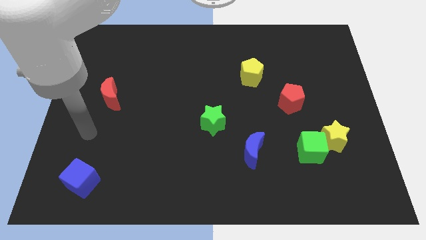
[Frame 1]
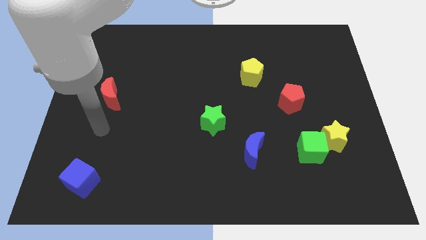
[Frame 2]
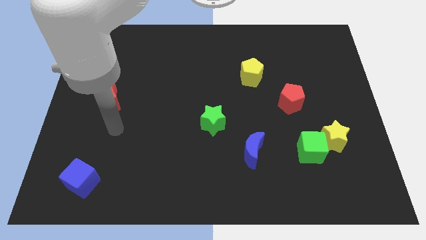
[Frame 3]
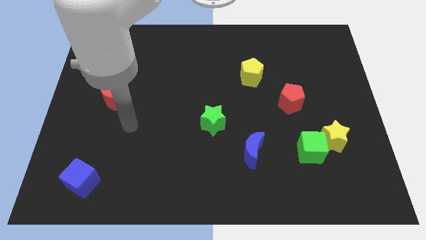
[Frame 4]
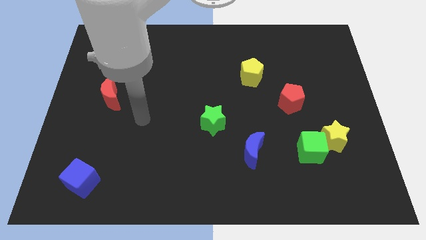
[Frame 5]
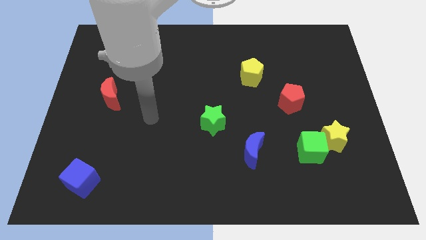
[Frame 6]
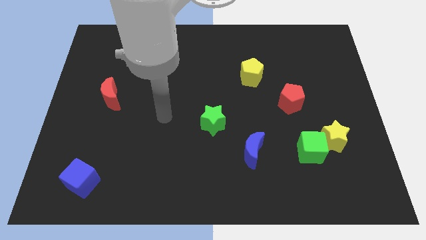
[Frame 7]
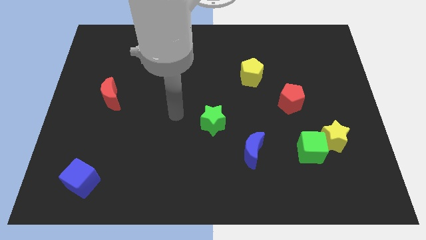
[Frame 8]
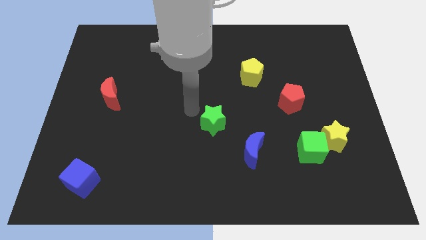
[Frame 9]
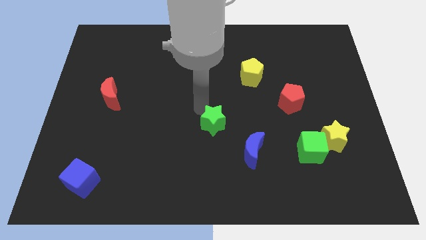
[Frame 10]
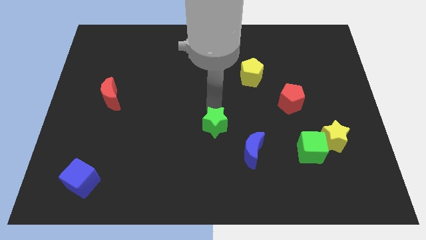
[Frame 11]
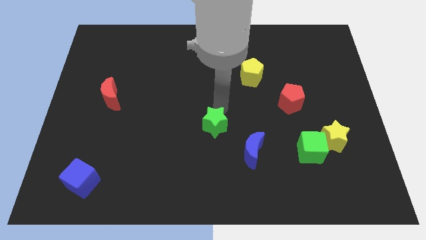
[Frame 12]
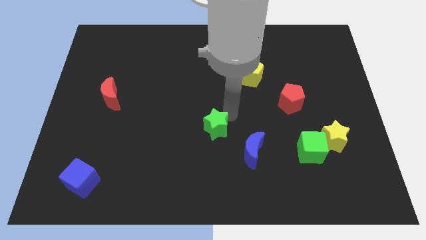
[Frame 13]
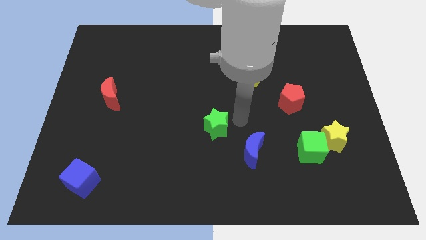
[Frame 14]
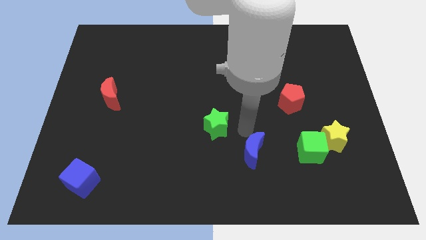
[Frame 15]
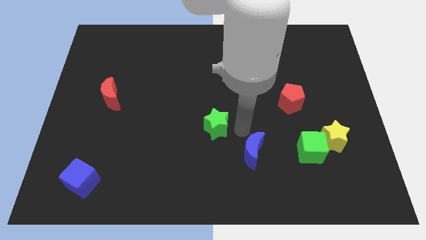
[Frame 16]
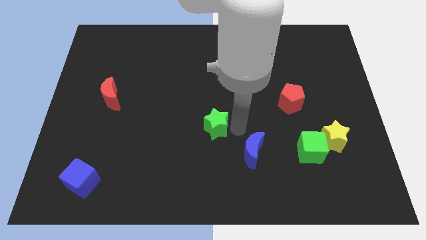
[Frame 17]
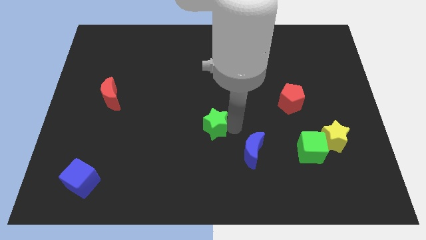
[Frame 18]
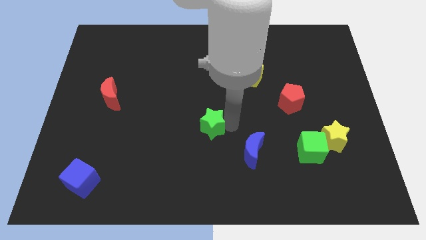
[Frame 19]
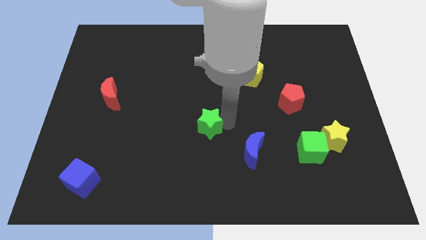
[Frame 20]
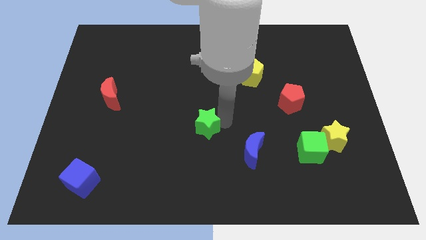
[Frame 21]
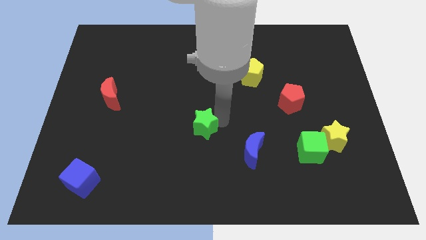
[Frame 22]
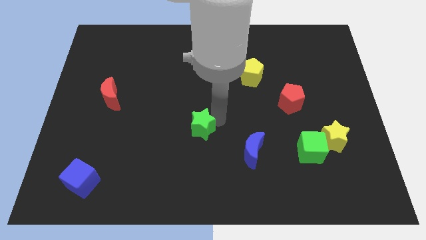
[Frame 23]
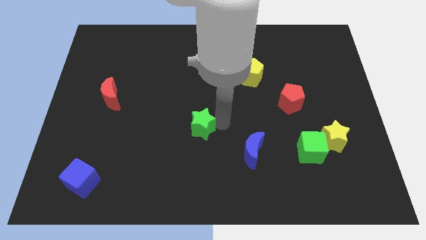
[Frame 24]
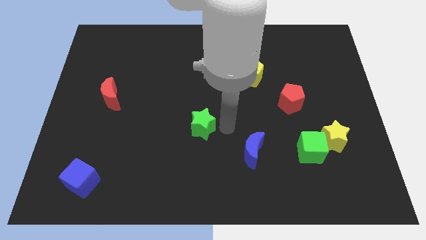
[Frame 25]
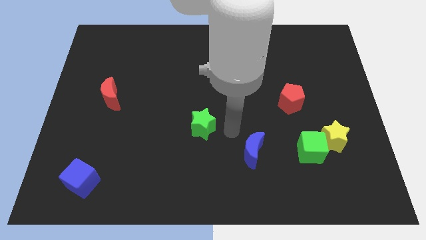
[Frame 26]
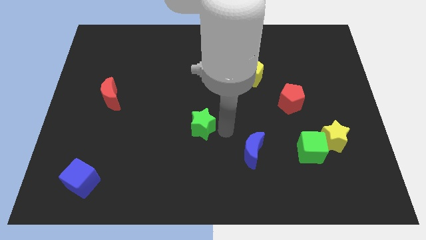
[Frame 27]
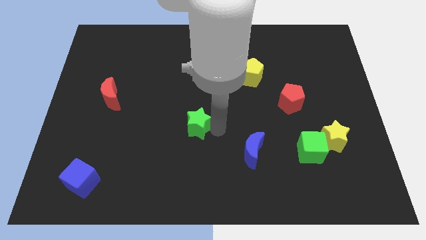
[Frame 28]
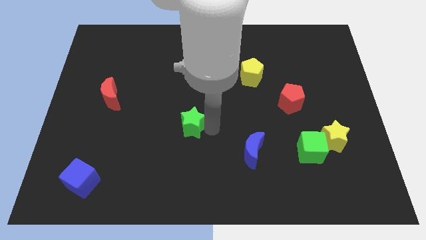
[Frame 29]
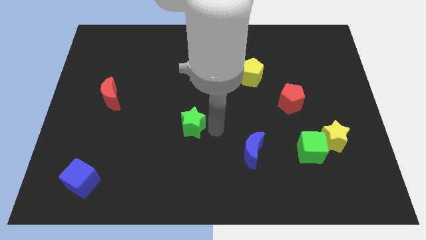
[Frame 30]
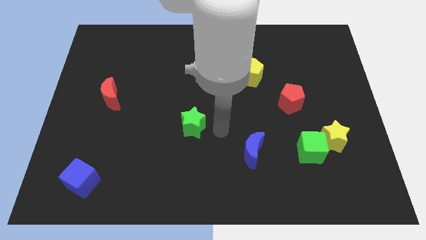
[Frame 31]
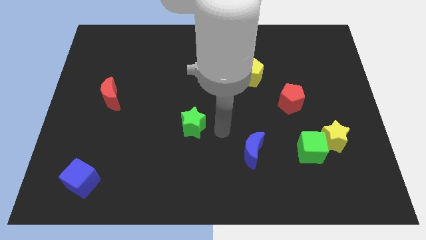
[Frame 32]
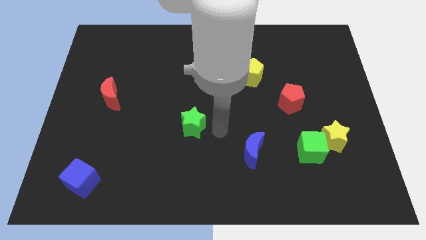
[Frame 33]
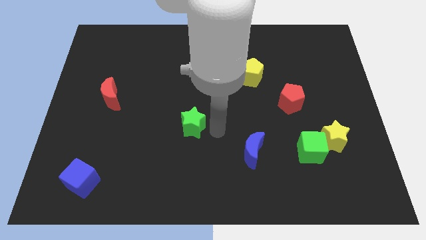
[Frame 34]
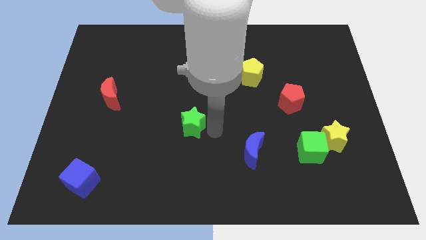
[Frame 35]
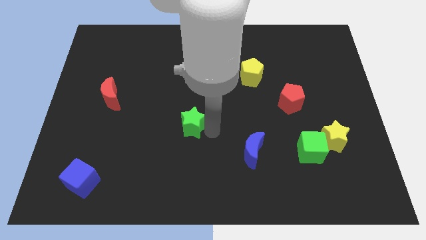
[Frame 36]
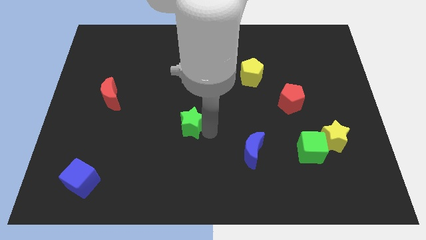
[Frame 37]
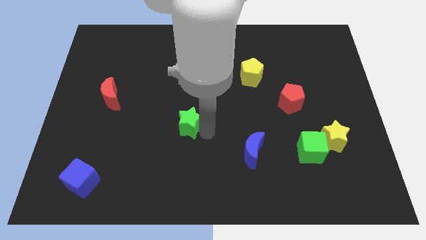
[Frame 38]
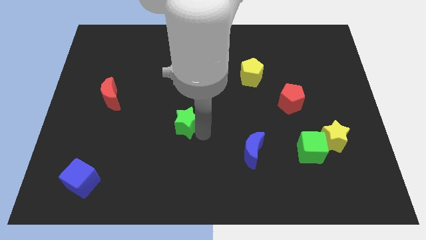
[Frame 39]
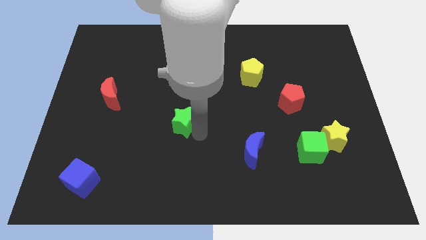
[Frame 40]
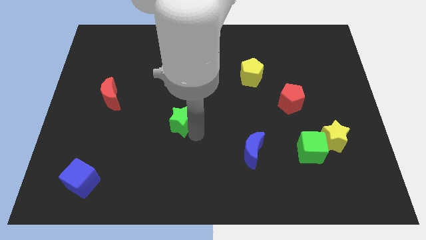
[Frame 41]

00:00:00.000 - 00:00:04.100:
push the green star to the left a little bit

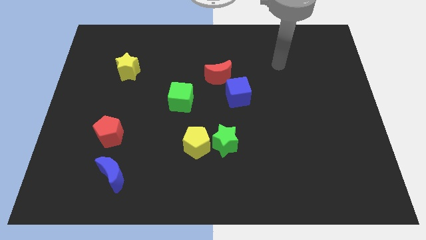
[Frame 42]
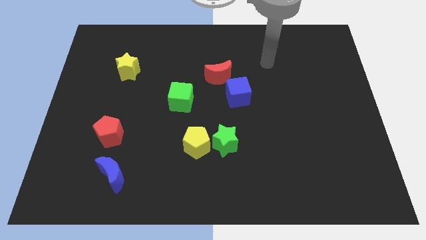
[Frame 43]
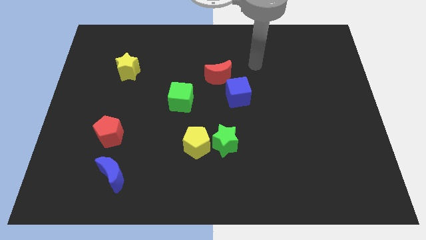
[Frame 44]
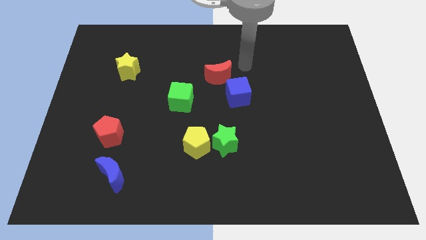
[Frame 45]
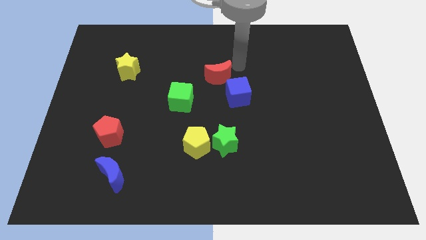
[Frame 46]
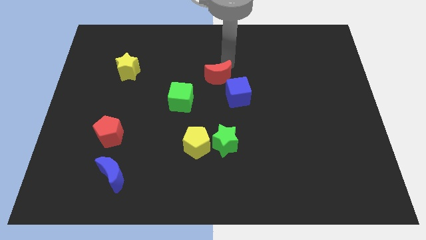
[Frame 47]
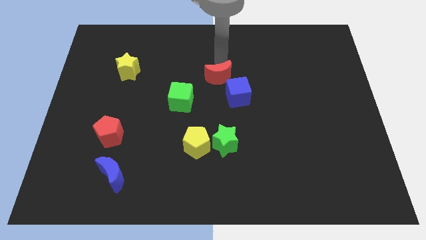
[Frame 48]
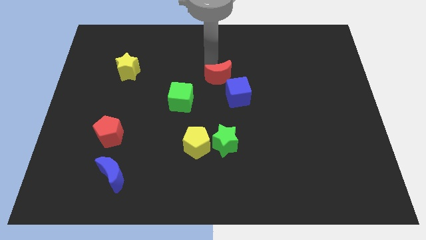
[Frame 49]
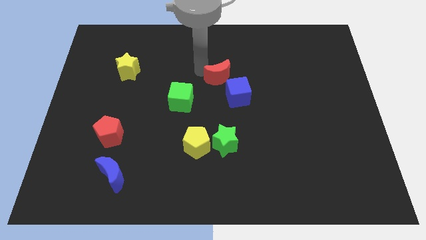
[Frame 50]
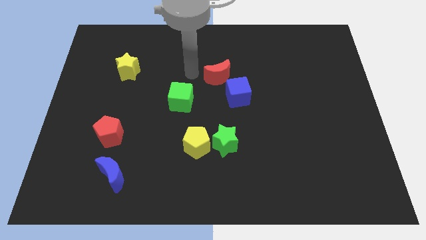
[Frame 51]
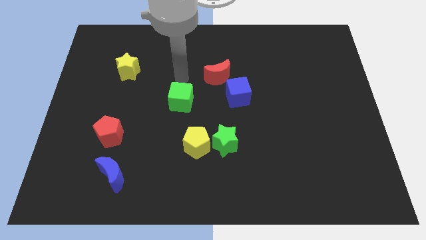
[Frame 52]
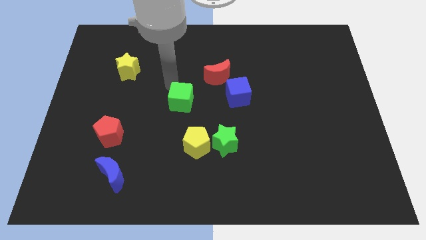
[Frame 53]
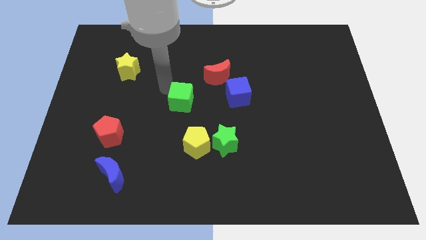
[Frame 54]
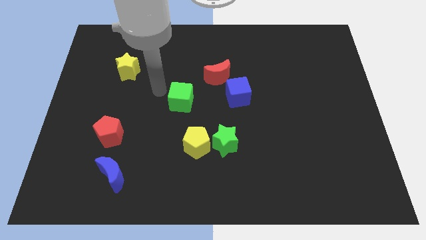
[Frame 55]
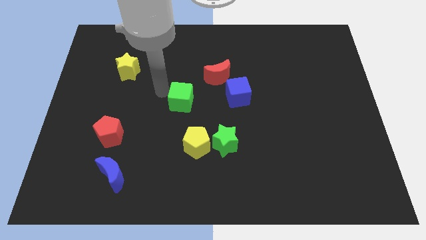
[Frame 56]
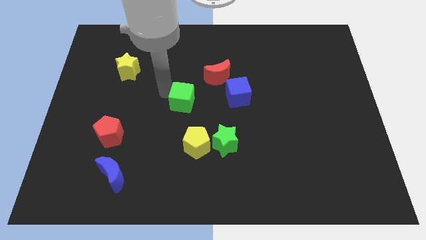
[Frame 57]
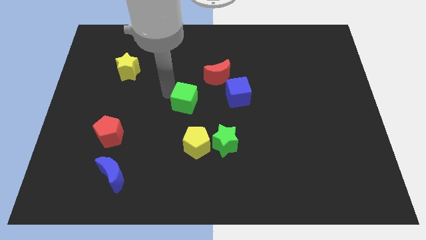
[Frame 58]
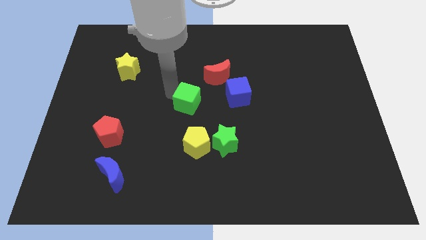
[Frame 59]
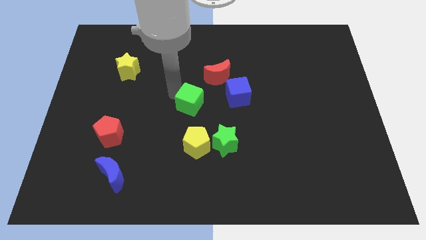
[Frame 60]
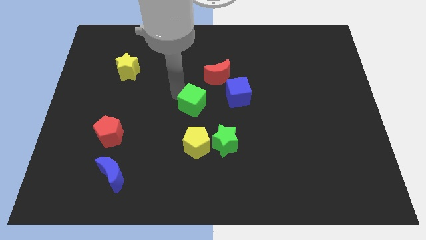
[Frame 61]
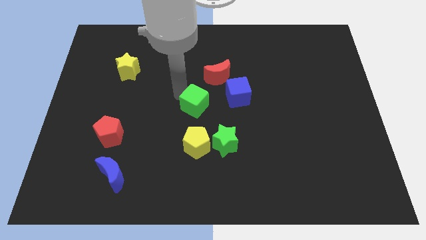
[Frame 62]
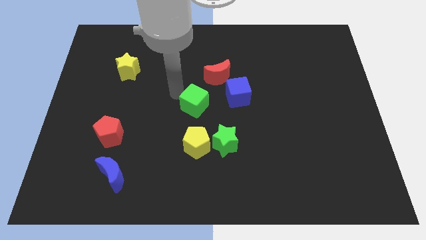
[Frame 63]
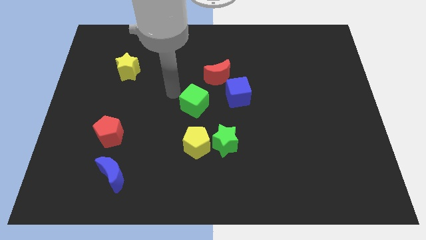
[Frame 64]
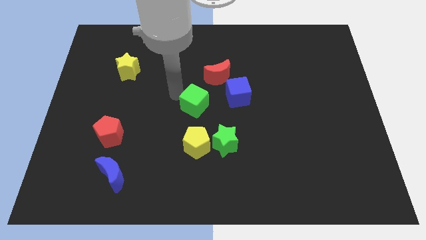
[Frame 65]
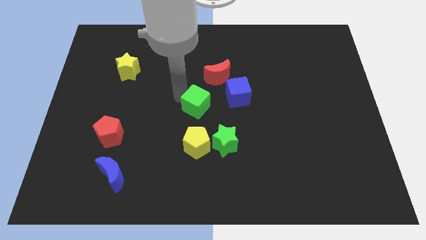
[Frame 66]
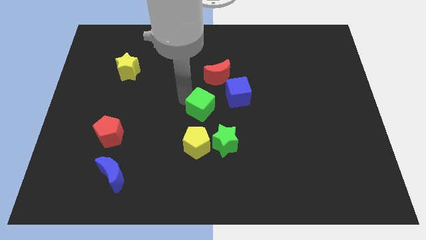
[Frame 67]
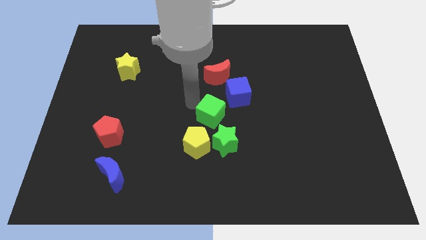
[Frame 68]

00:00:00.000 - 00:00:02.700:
slightly push the green cube diagonally down and right

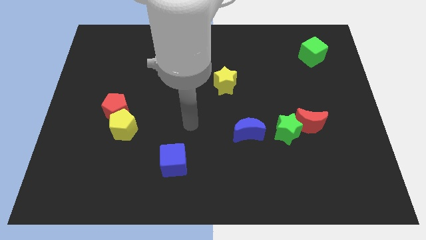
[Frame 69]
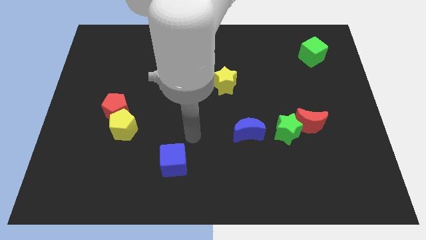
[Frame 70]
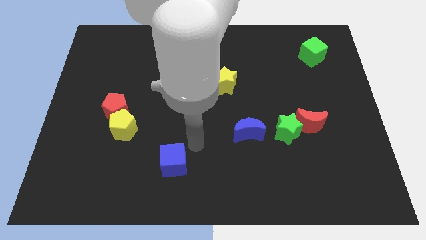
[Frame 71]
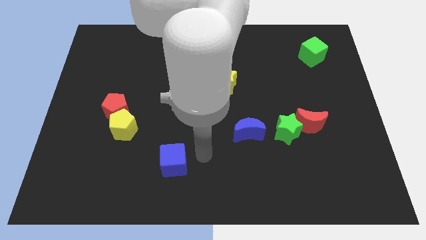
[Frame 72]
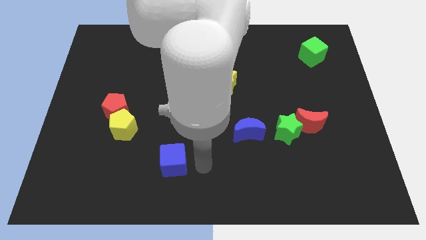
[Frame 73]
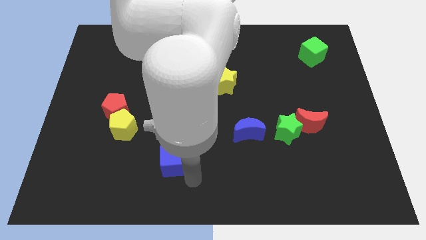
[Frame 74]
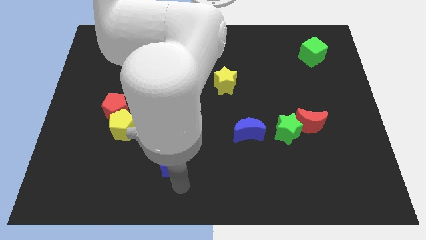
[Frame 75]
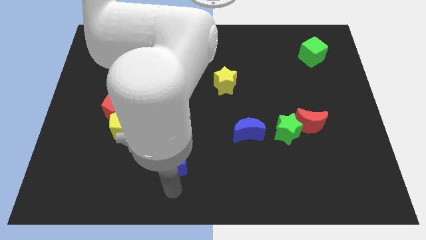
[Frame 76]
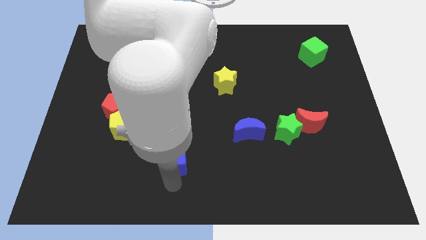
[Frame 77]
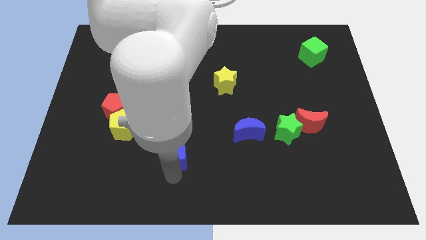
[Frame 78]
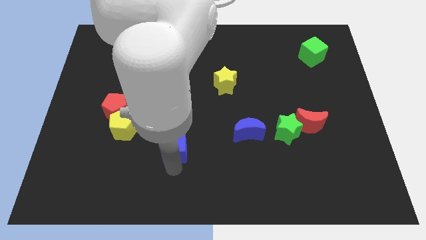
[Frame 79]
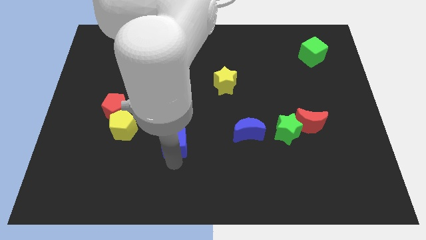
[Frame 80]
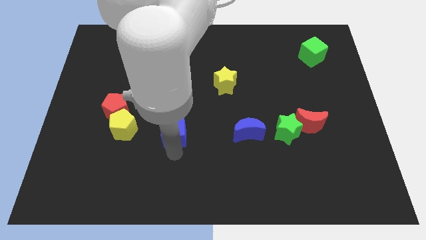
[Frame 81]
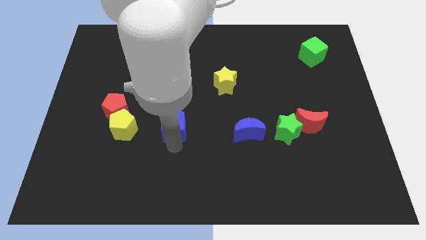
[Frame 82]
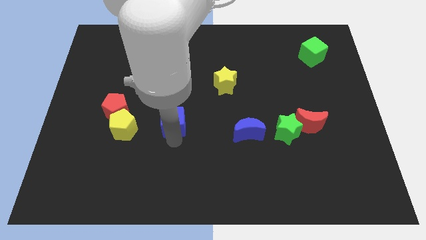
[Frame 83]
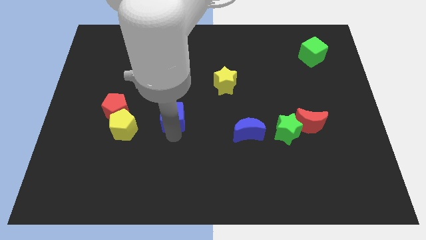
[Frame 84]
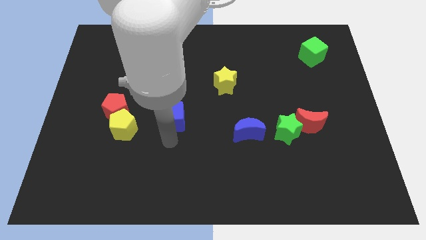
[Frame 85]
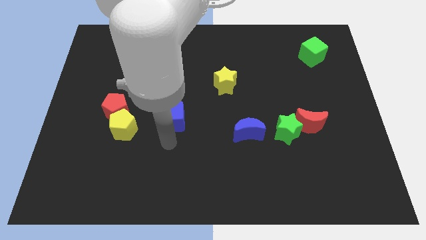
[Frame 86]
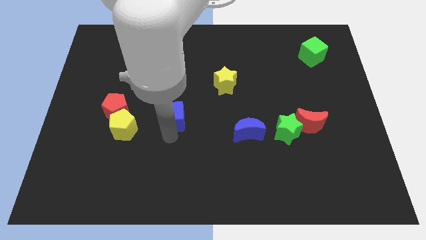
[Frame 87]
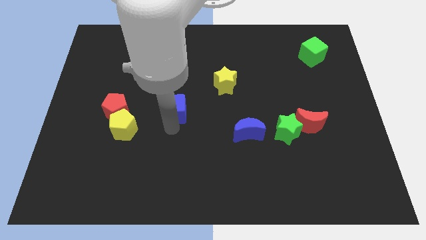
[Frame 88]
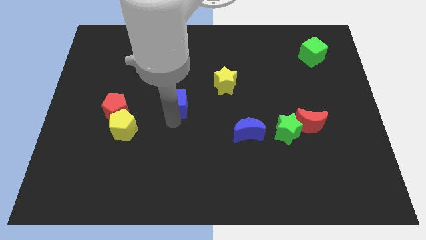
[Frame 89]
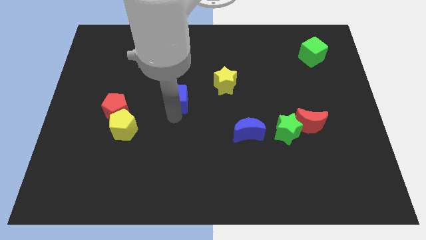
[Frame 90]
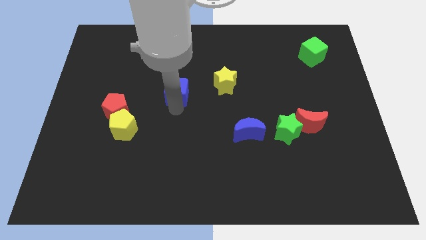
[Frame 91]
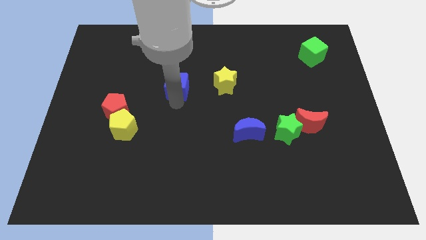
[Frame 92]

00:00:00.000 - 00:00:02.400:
push the blue cube up
